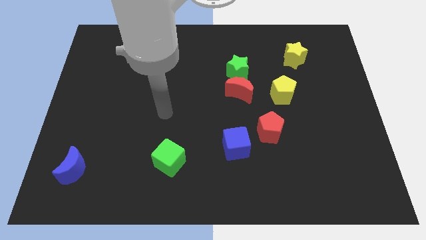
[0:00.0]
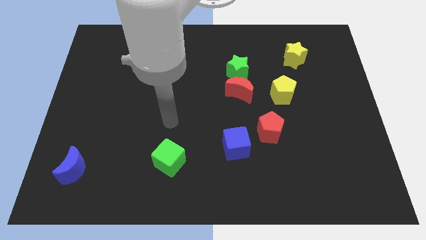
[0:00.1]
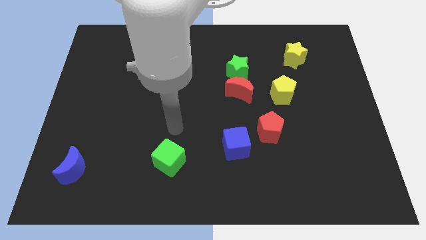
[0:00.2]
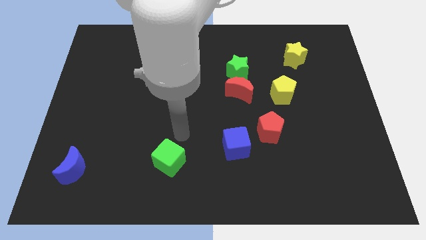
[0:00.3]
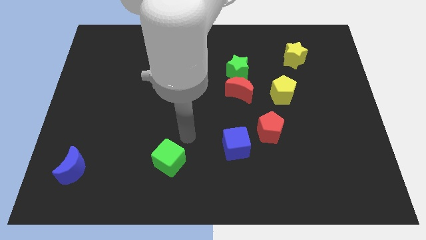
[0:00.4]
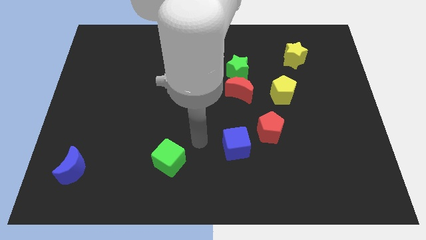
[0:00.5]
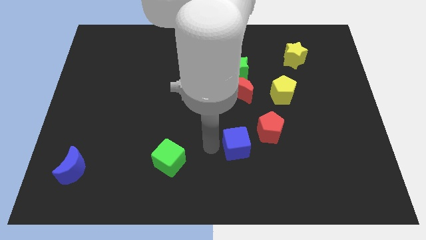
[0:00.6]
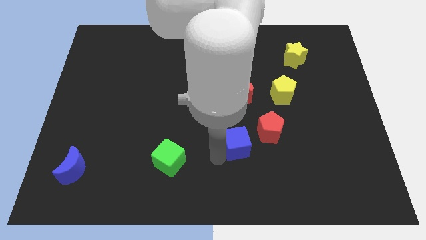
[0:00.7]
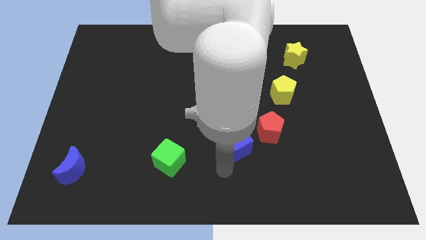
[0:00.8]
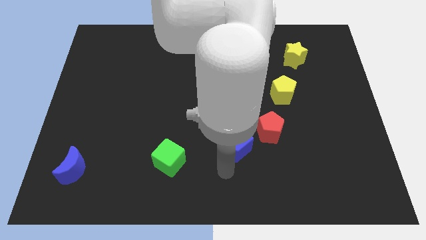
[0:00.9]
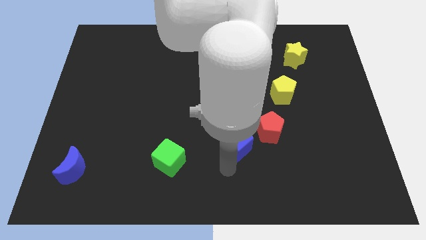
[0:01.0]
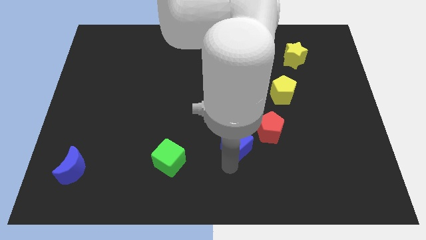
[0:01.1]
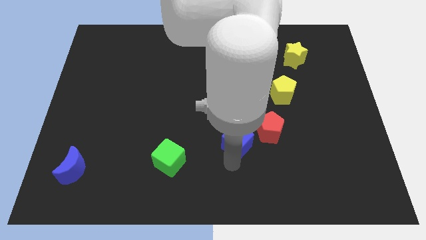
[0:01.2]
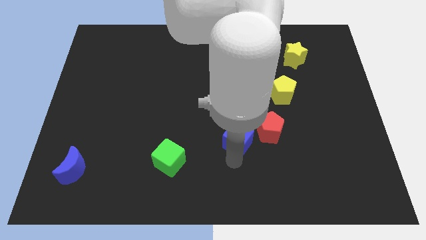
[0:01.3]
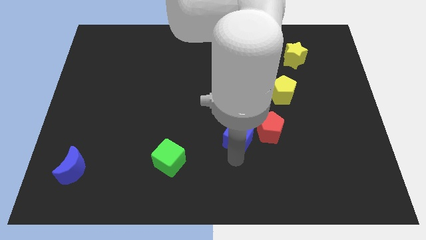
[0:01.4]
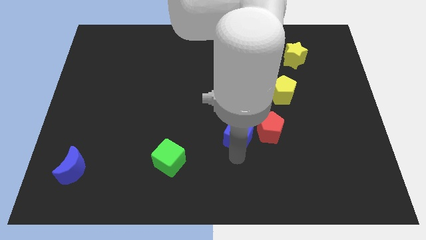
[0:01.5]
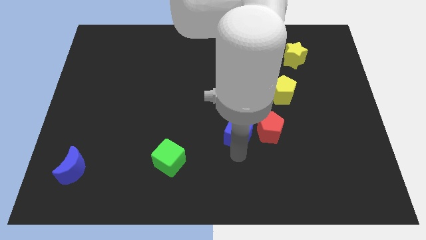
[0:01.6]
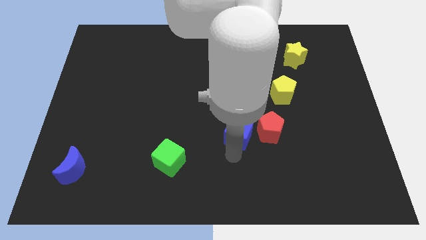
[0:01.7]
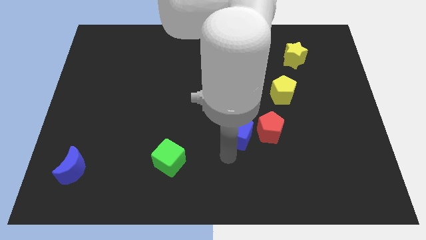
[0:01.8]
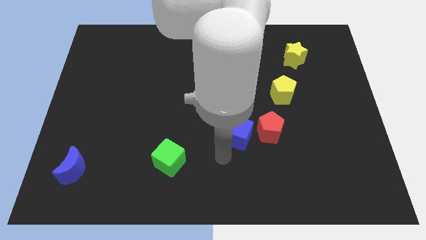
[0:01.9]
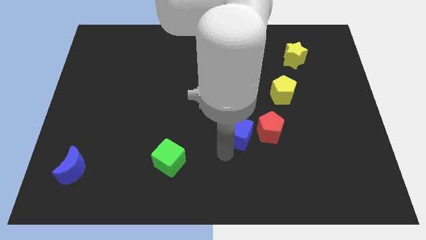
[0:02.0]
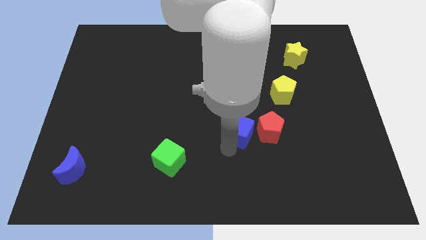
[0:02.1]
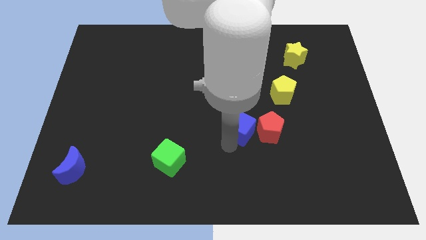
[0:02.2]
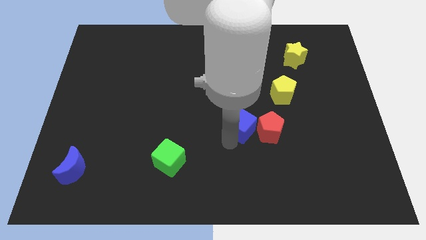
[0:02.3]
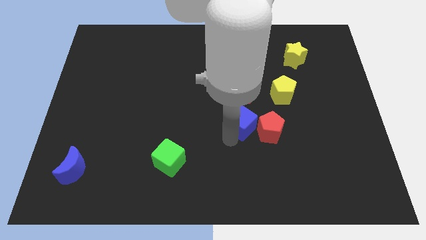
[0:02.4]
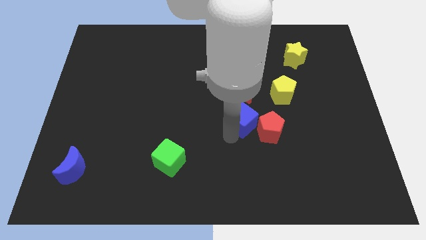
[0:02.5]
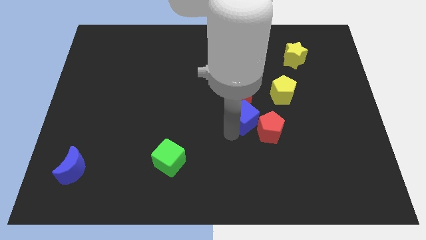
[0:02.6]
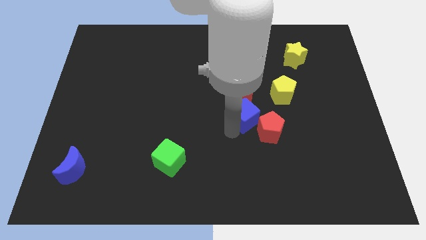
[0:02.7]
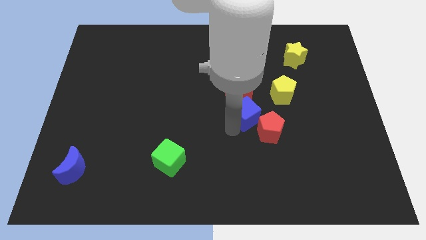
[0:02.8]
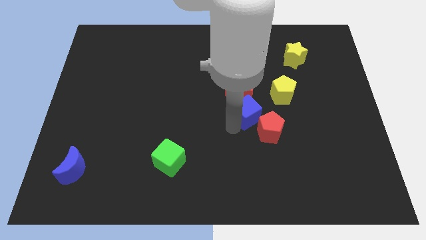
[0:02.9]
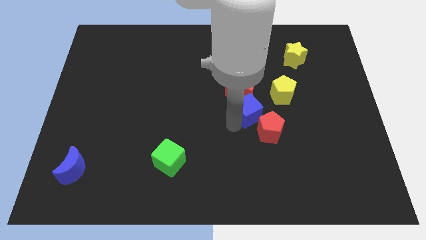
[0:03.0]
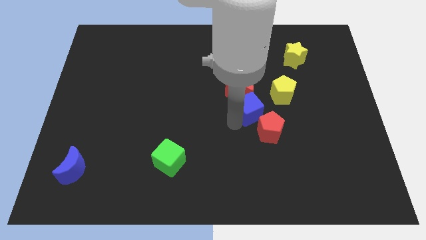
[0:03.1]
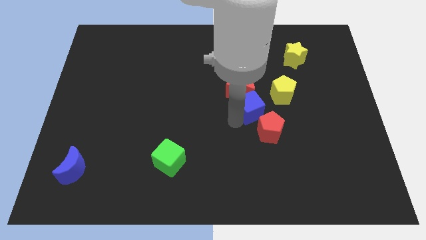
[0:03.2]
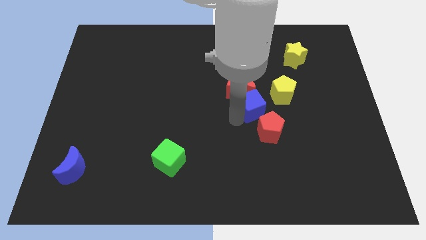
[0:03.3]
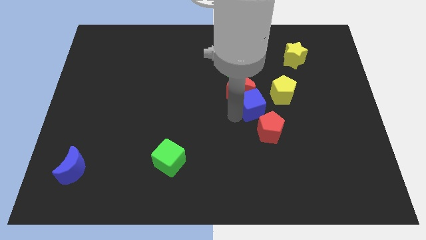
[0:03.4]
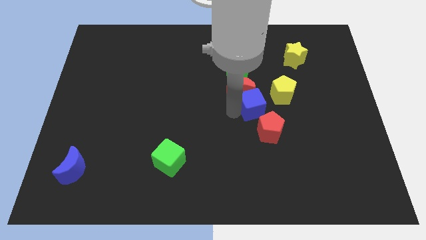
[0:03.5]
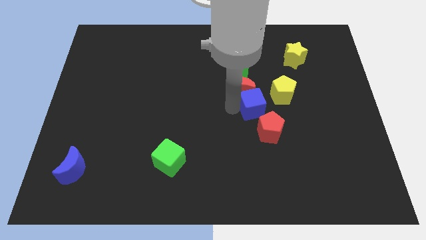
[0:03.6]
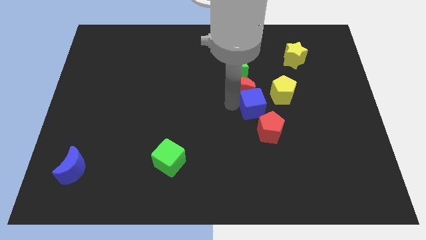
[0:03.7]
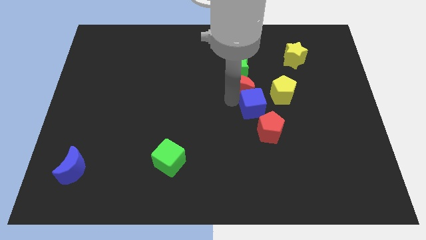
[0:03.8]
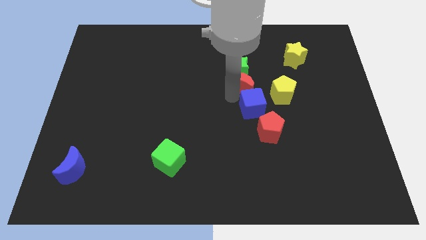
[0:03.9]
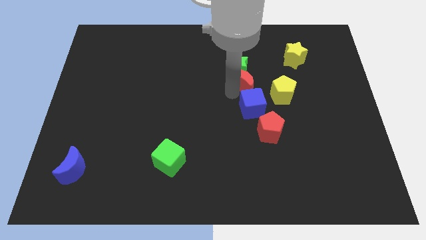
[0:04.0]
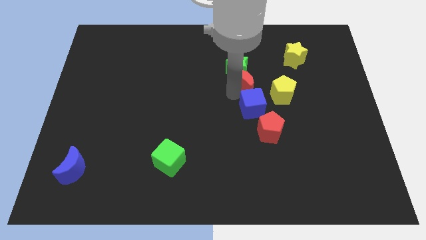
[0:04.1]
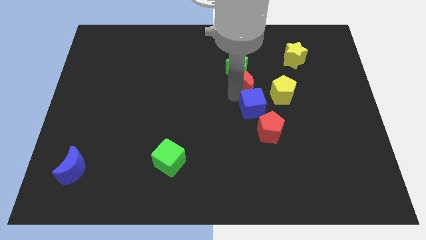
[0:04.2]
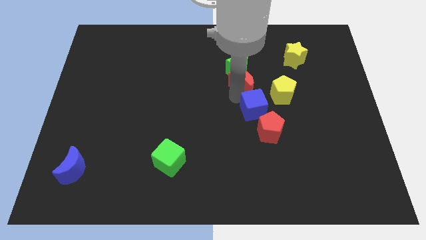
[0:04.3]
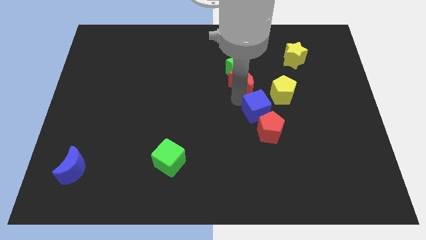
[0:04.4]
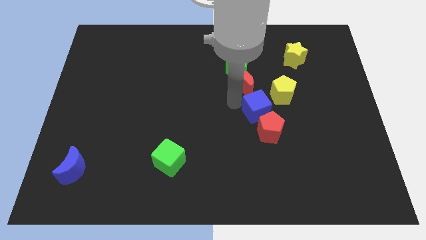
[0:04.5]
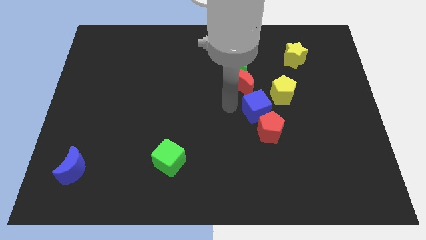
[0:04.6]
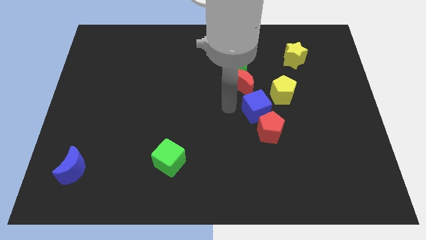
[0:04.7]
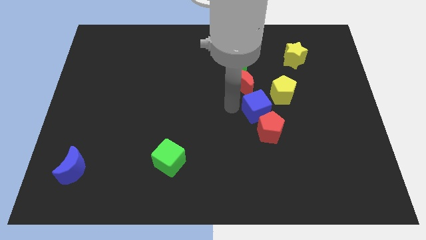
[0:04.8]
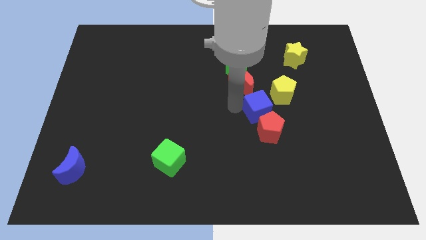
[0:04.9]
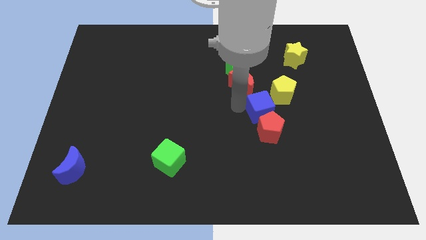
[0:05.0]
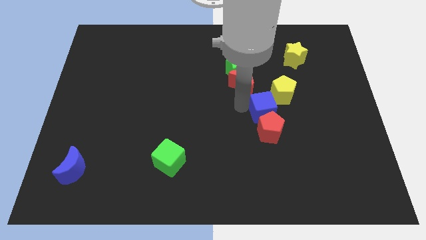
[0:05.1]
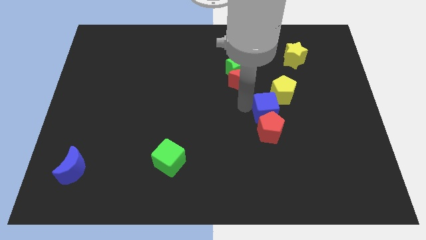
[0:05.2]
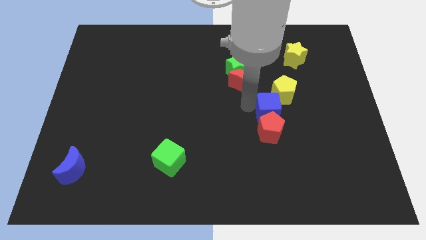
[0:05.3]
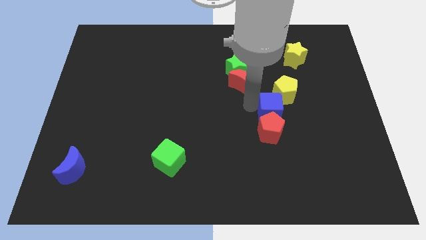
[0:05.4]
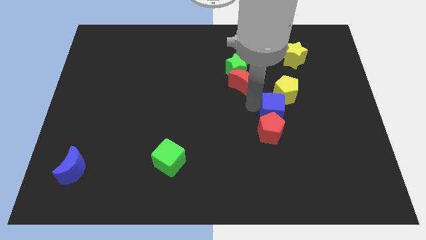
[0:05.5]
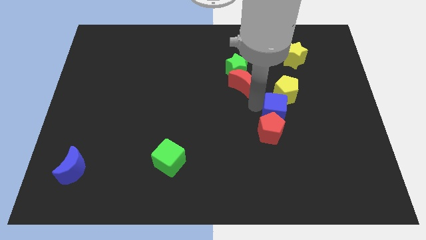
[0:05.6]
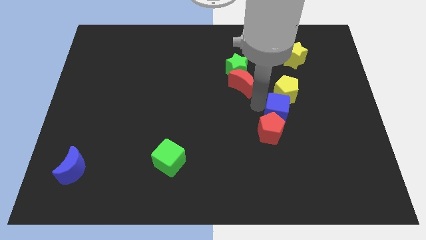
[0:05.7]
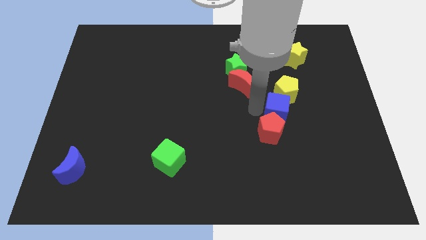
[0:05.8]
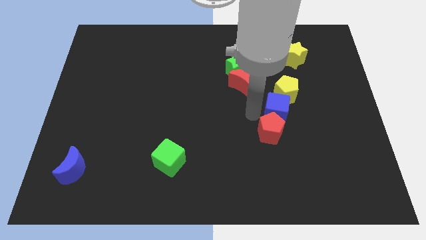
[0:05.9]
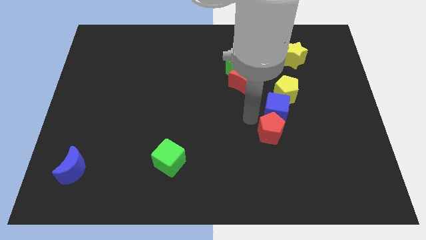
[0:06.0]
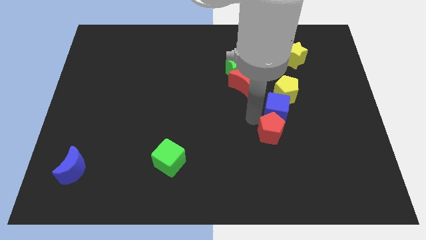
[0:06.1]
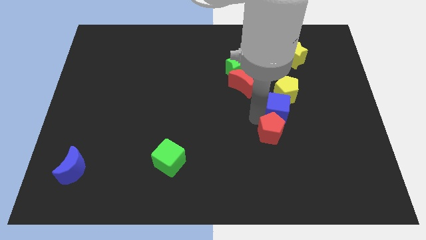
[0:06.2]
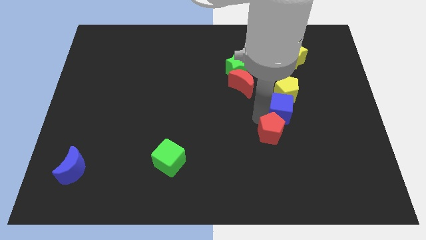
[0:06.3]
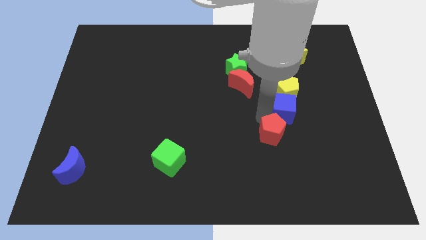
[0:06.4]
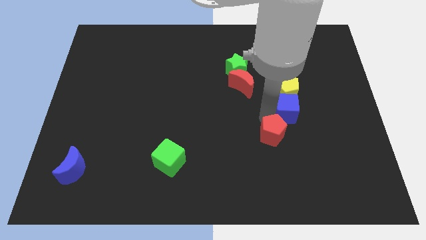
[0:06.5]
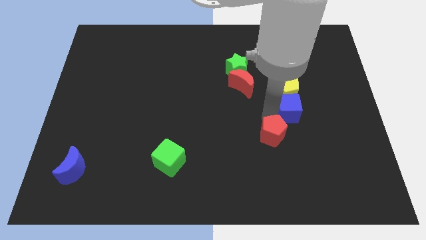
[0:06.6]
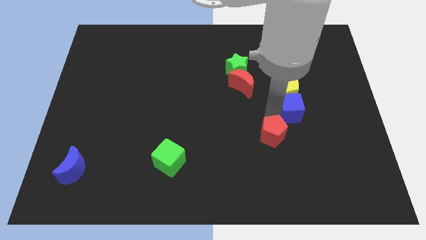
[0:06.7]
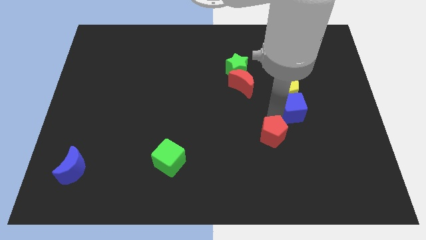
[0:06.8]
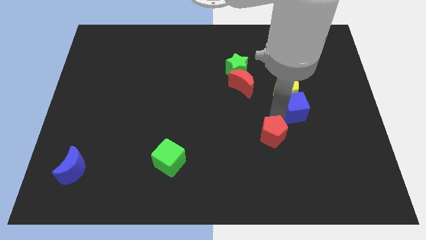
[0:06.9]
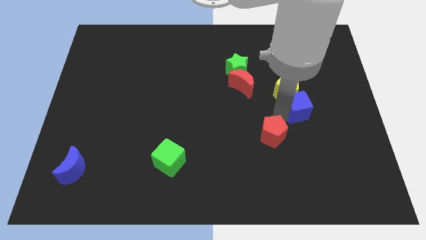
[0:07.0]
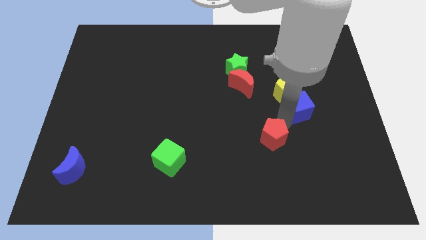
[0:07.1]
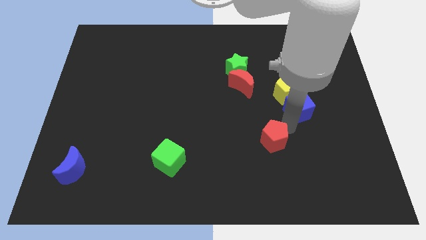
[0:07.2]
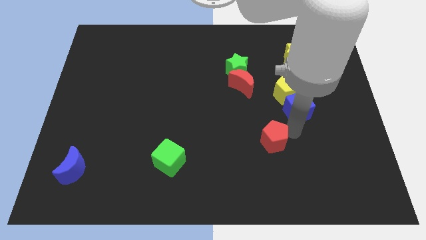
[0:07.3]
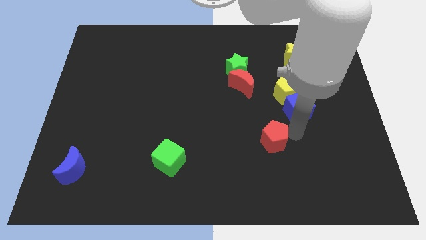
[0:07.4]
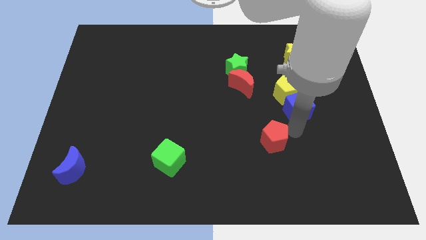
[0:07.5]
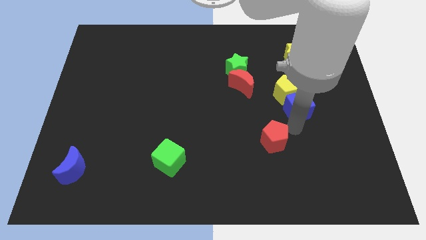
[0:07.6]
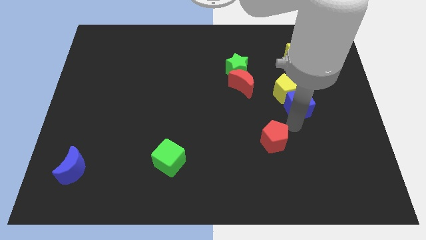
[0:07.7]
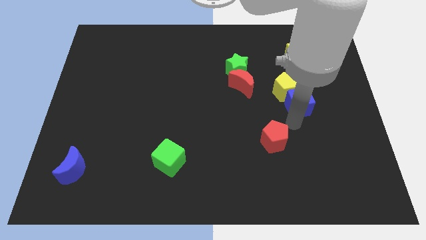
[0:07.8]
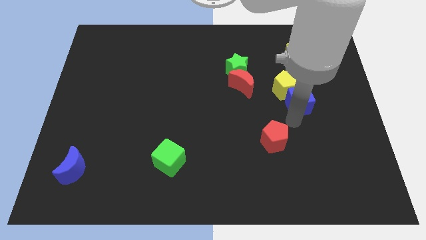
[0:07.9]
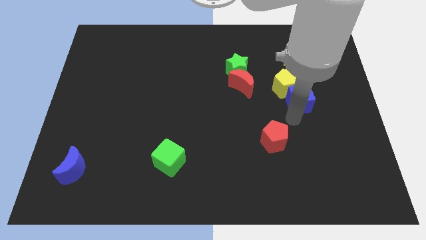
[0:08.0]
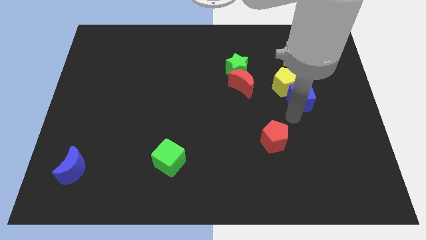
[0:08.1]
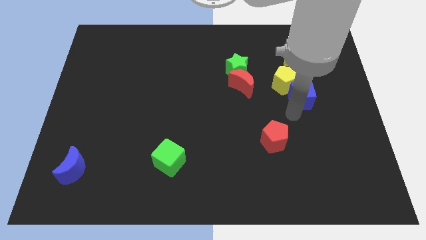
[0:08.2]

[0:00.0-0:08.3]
push the blue cube to the right of the red moon
